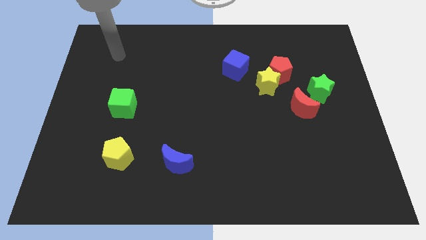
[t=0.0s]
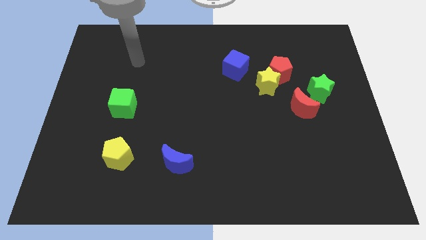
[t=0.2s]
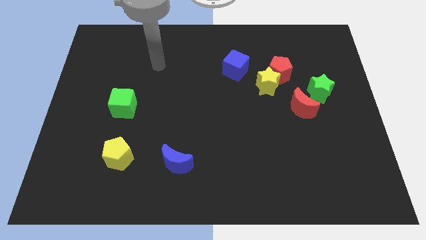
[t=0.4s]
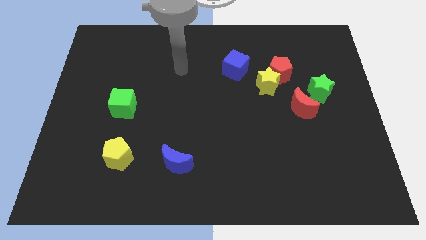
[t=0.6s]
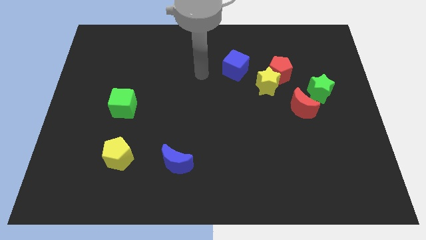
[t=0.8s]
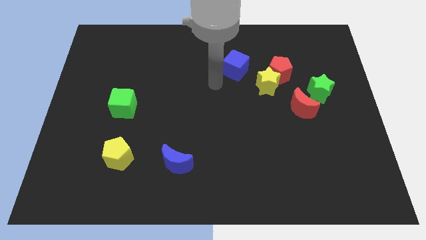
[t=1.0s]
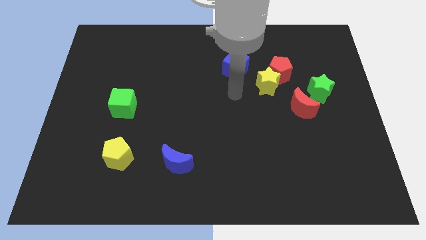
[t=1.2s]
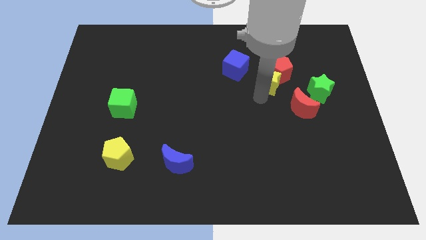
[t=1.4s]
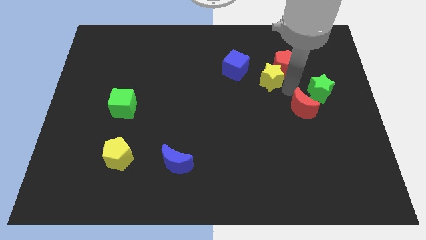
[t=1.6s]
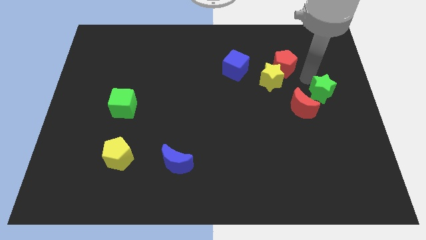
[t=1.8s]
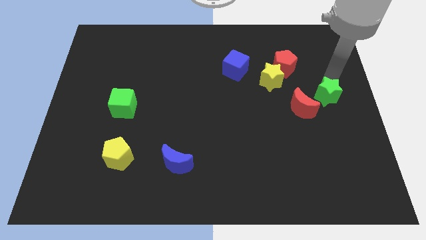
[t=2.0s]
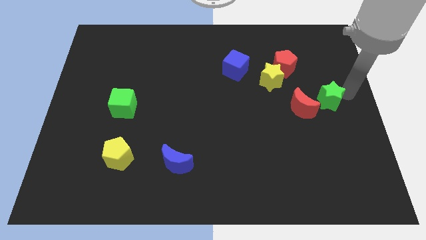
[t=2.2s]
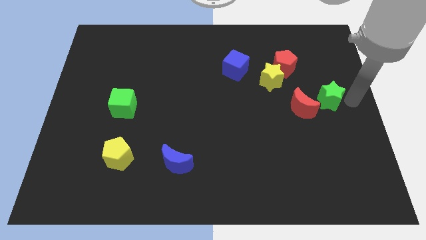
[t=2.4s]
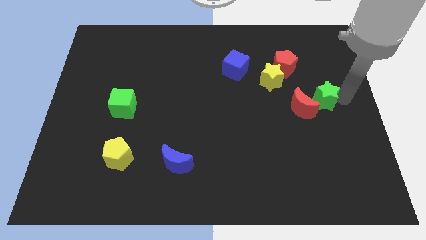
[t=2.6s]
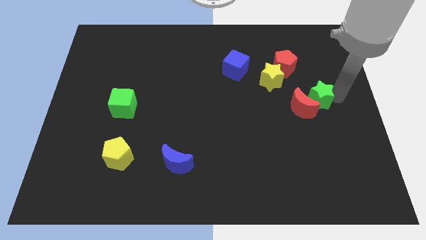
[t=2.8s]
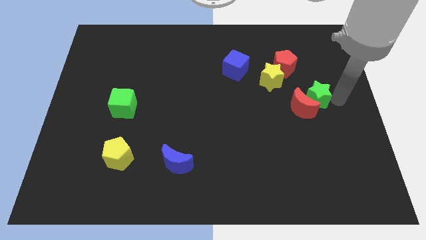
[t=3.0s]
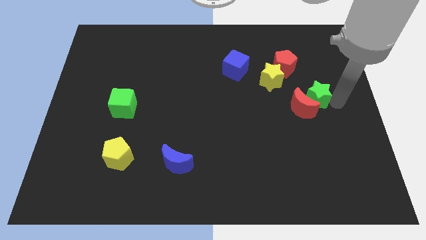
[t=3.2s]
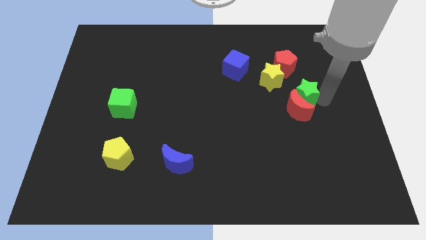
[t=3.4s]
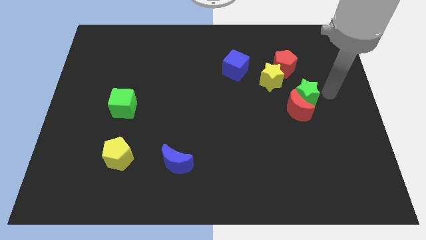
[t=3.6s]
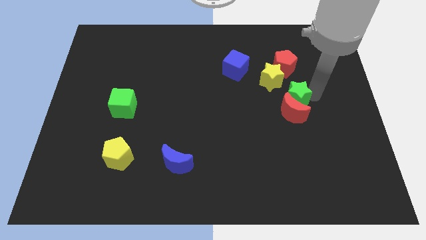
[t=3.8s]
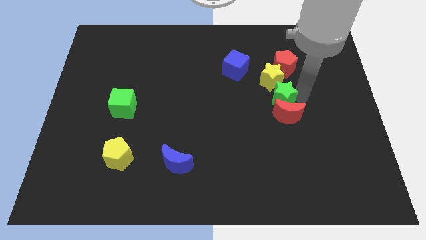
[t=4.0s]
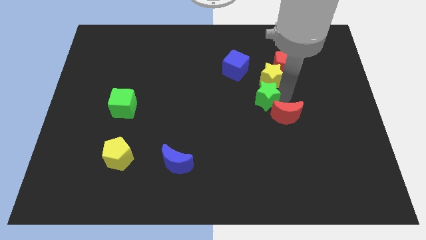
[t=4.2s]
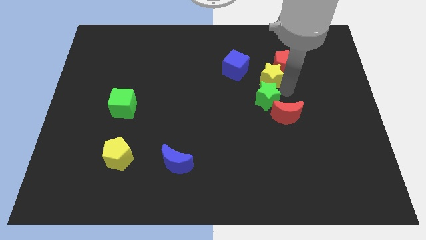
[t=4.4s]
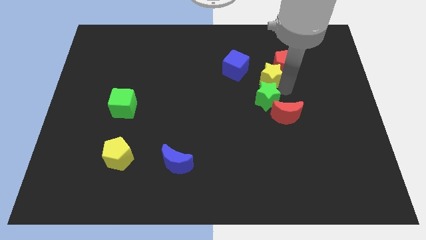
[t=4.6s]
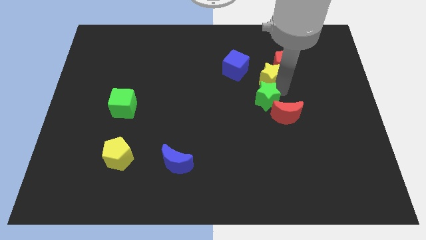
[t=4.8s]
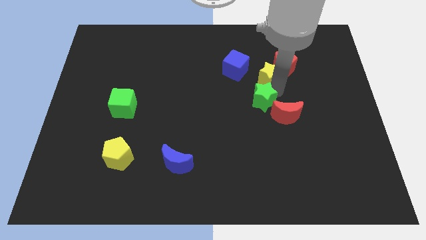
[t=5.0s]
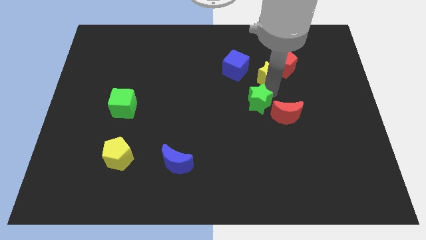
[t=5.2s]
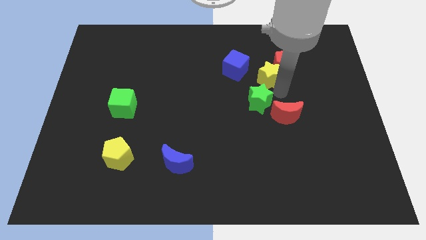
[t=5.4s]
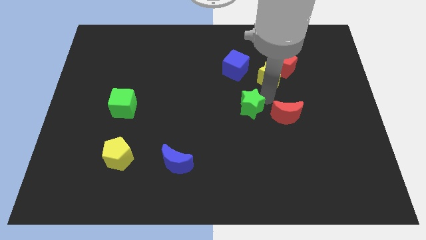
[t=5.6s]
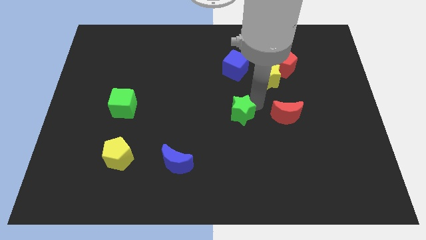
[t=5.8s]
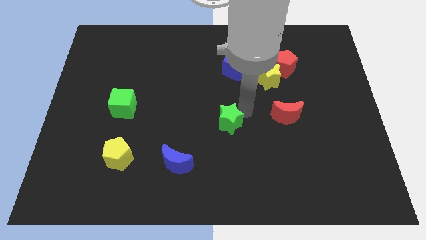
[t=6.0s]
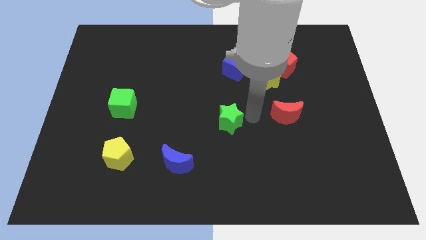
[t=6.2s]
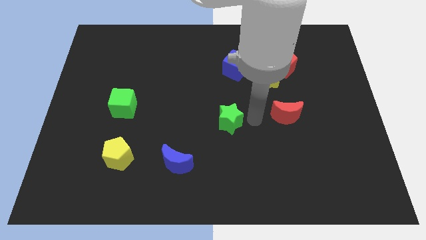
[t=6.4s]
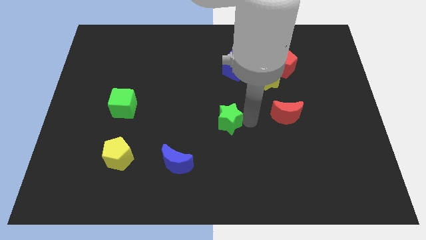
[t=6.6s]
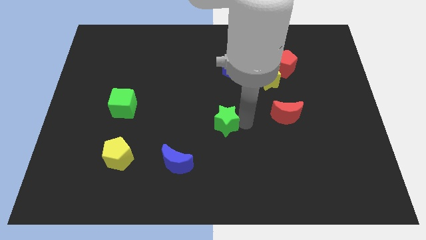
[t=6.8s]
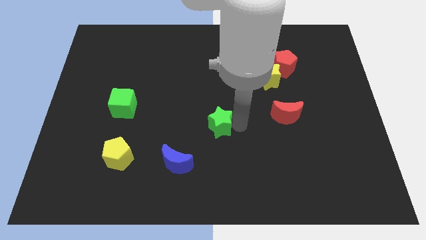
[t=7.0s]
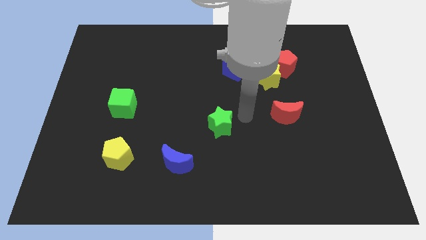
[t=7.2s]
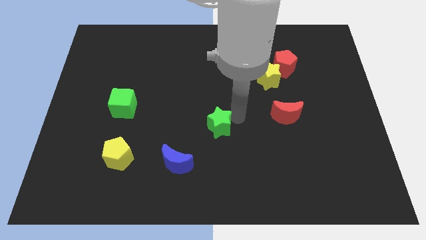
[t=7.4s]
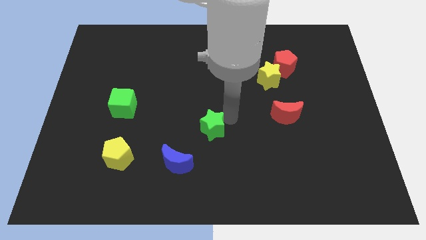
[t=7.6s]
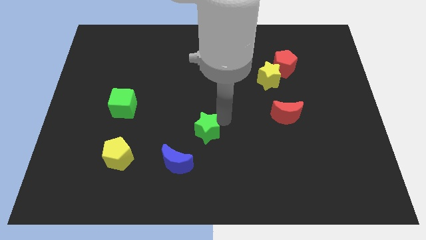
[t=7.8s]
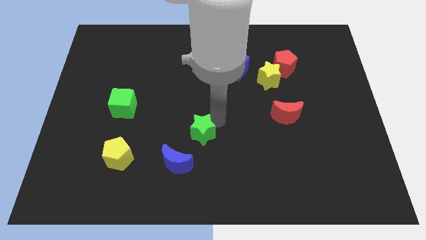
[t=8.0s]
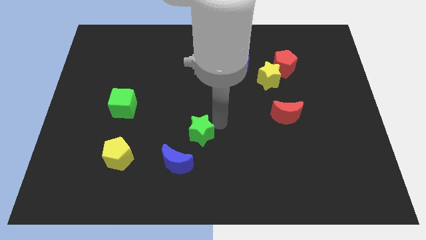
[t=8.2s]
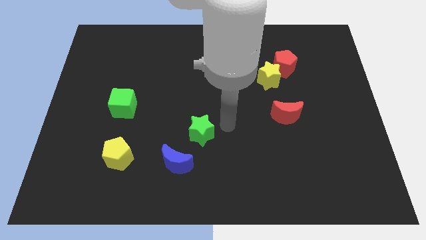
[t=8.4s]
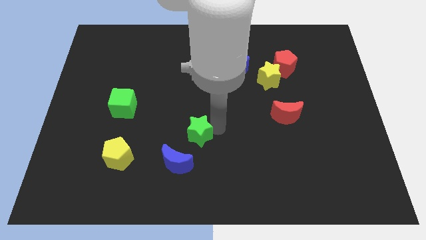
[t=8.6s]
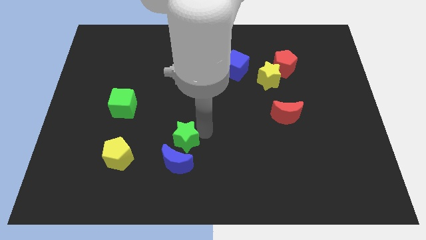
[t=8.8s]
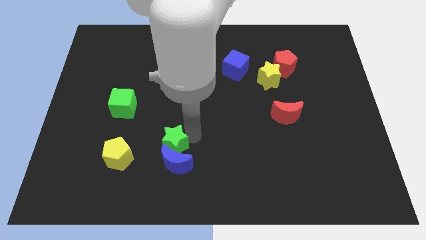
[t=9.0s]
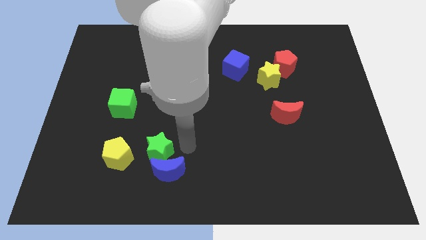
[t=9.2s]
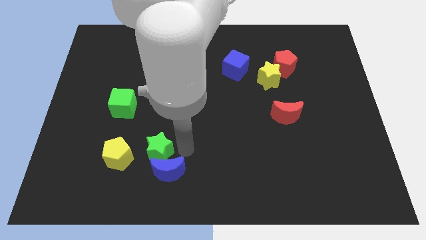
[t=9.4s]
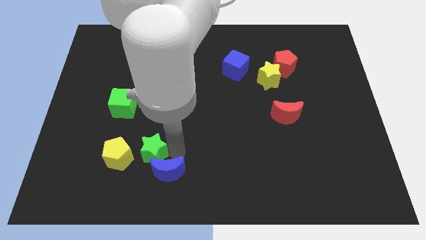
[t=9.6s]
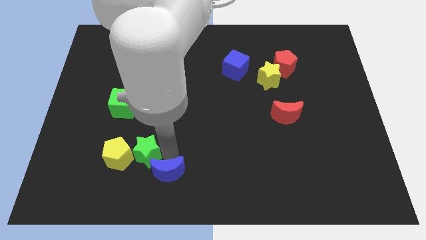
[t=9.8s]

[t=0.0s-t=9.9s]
put the green star close to the yellow pentagon

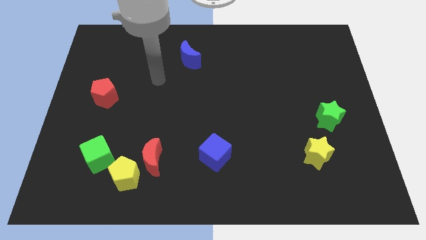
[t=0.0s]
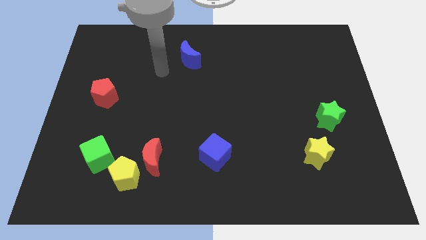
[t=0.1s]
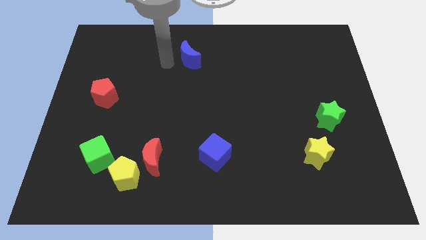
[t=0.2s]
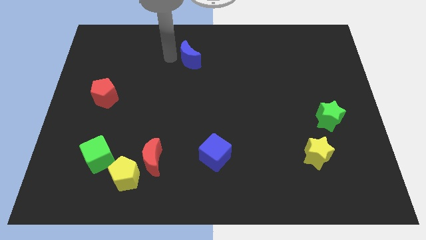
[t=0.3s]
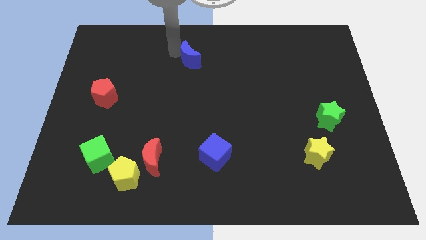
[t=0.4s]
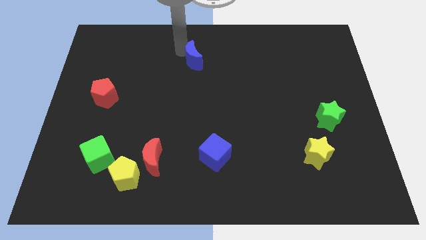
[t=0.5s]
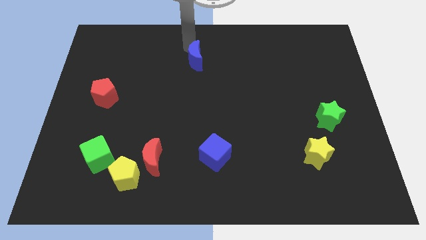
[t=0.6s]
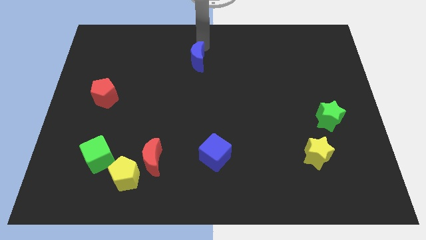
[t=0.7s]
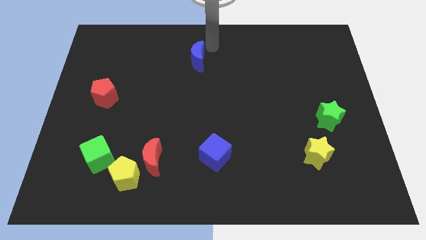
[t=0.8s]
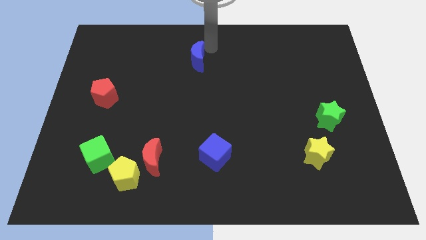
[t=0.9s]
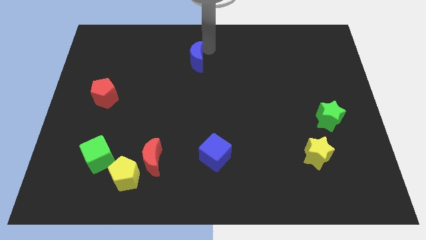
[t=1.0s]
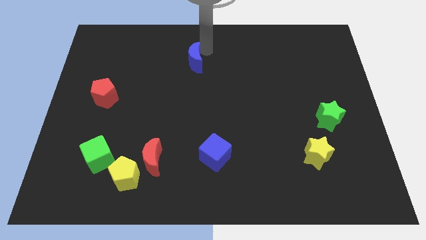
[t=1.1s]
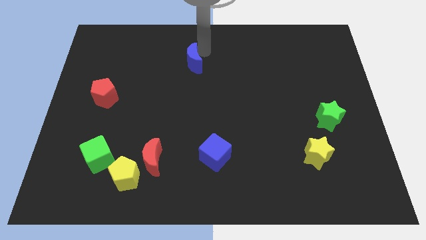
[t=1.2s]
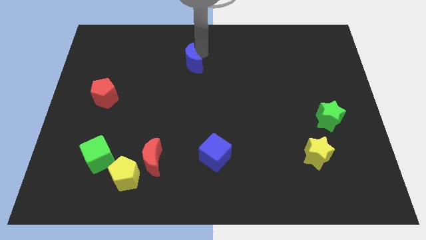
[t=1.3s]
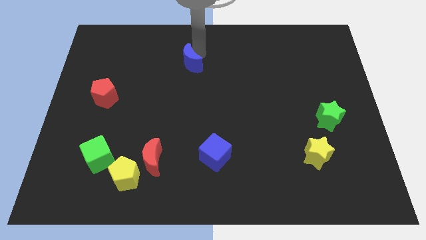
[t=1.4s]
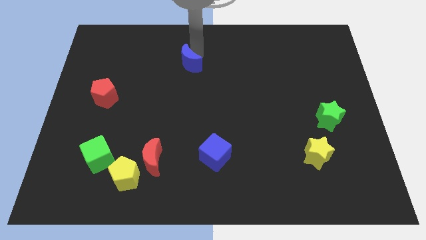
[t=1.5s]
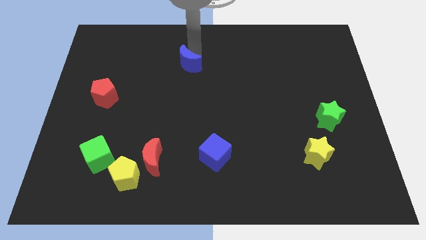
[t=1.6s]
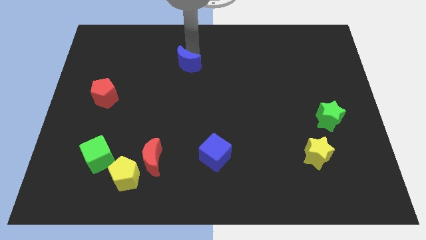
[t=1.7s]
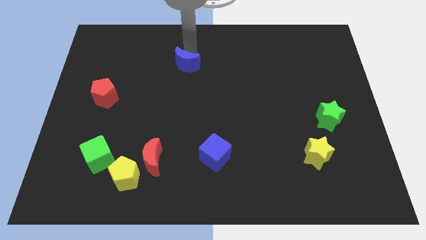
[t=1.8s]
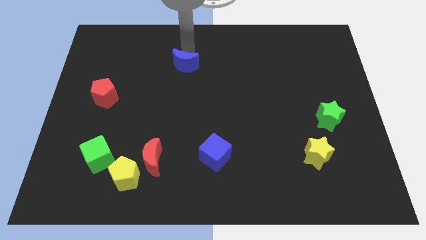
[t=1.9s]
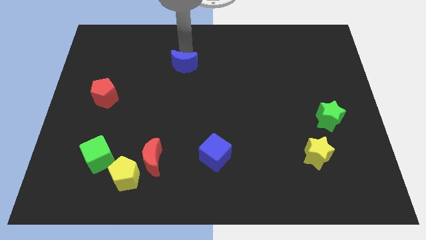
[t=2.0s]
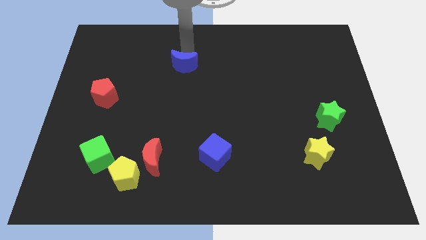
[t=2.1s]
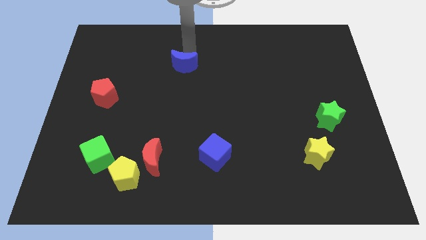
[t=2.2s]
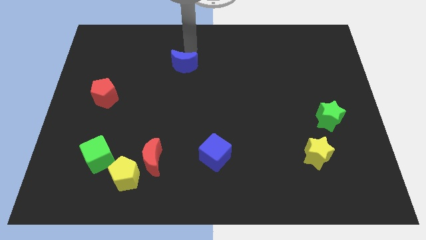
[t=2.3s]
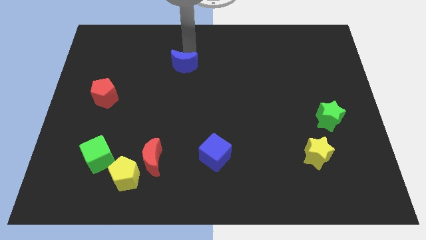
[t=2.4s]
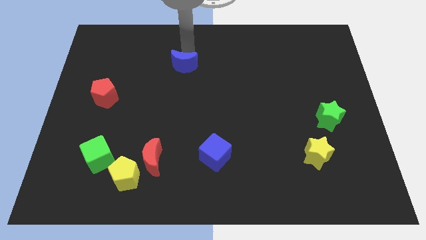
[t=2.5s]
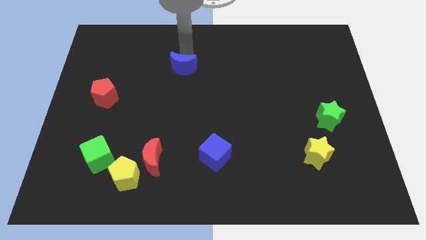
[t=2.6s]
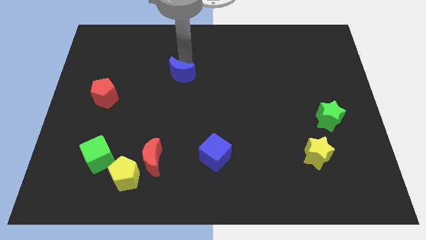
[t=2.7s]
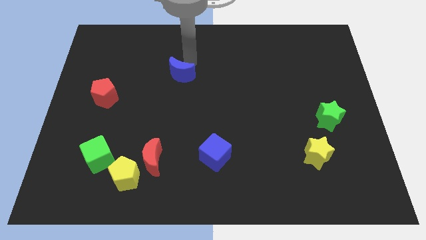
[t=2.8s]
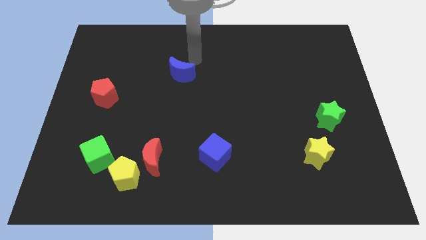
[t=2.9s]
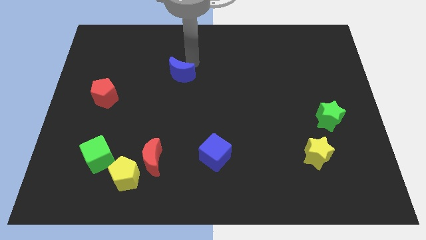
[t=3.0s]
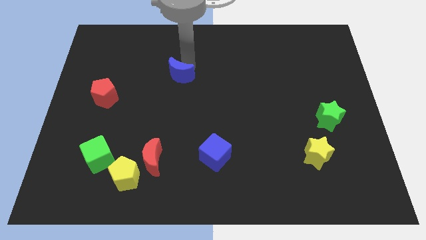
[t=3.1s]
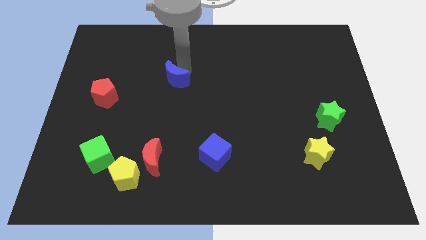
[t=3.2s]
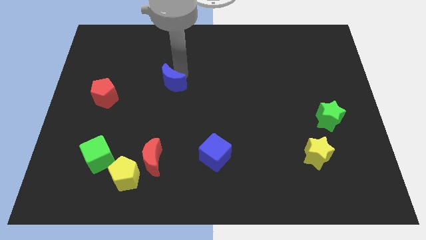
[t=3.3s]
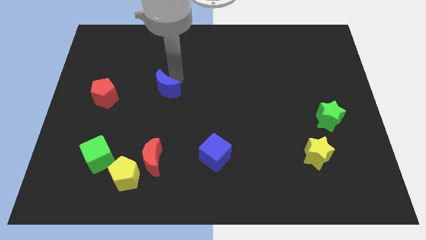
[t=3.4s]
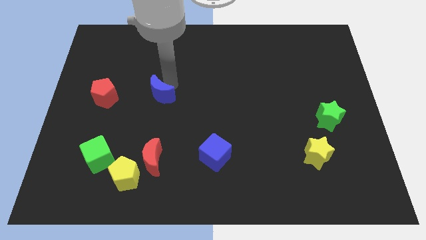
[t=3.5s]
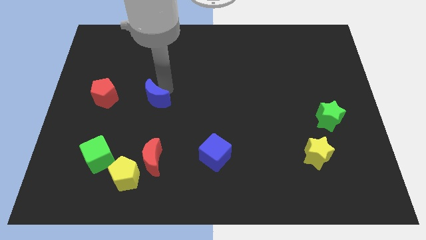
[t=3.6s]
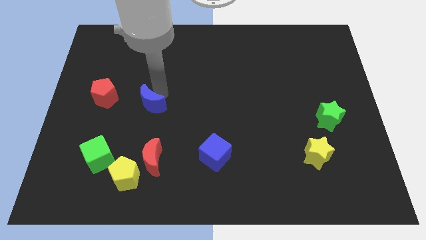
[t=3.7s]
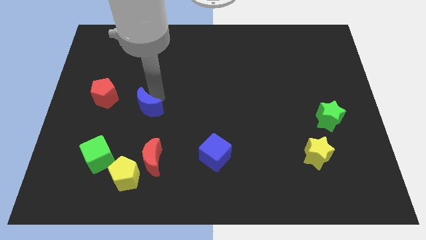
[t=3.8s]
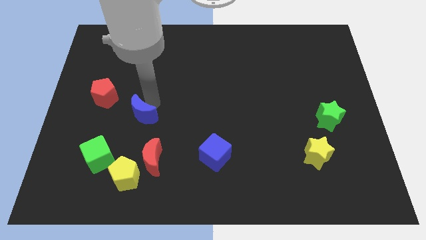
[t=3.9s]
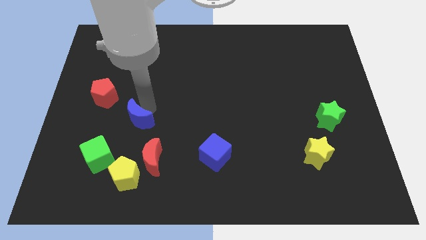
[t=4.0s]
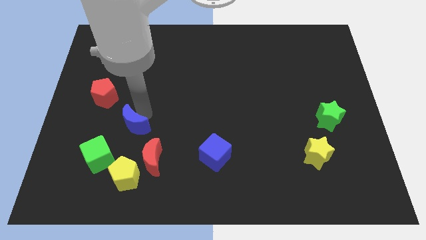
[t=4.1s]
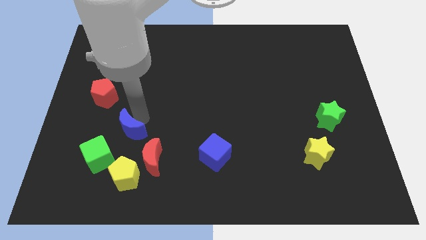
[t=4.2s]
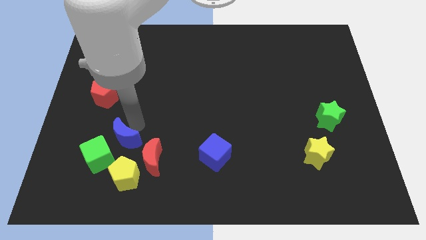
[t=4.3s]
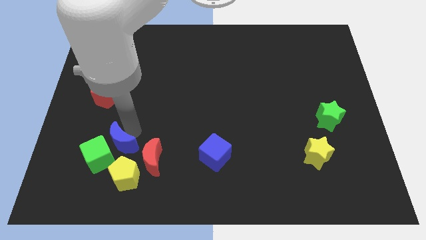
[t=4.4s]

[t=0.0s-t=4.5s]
put the blue moon towards the green cube
